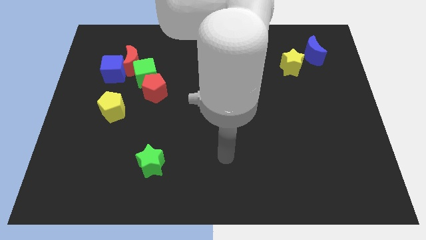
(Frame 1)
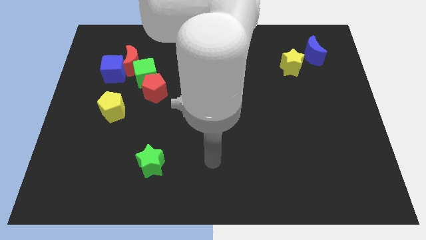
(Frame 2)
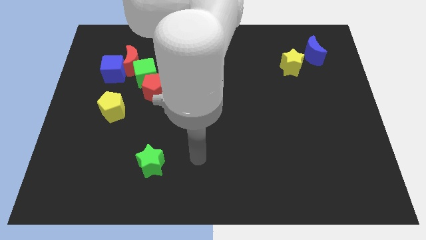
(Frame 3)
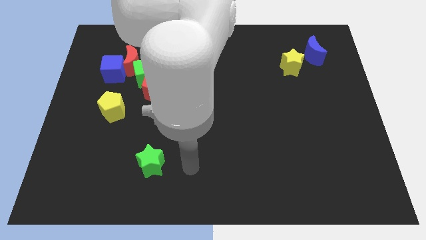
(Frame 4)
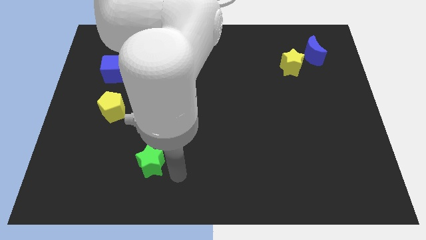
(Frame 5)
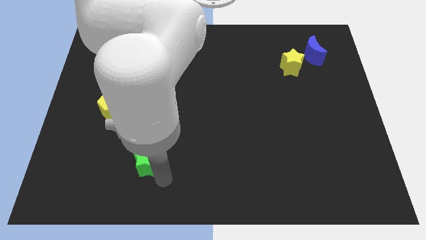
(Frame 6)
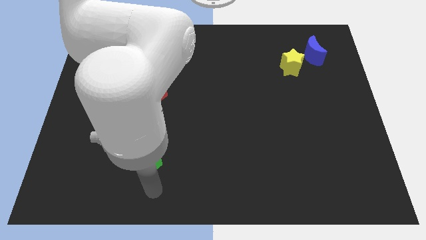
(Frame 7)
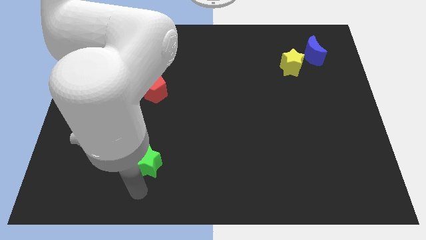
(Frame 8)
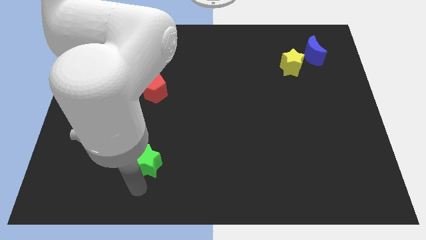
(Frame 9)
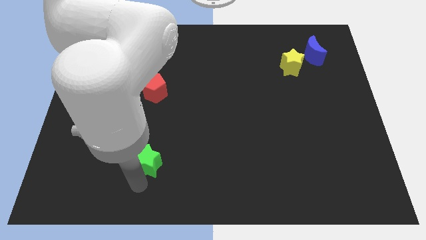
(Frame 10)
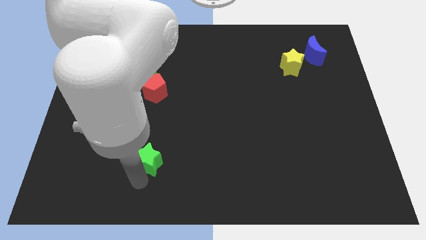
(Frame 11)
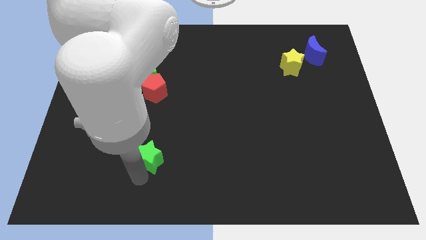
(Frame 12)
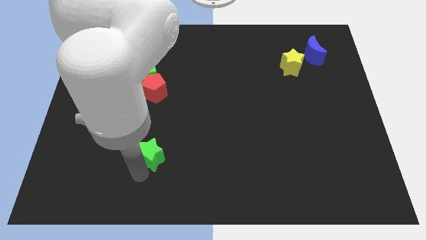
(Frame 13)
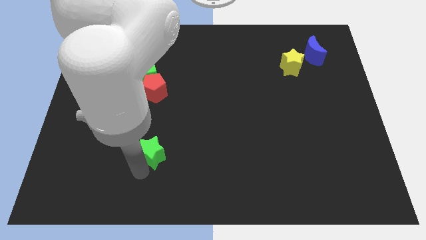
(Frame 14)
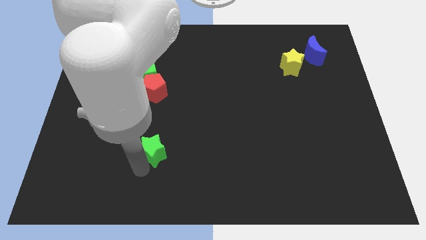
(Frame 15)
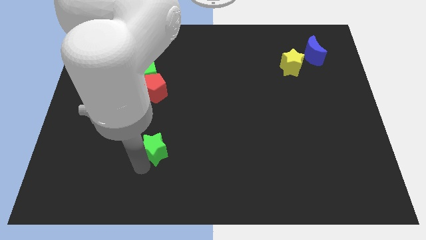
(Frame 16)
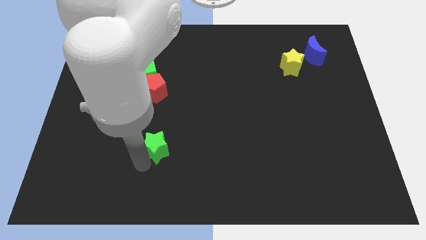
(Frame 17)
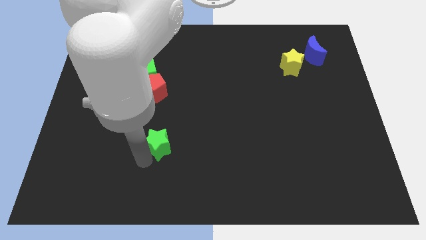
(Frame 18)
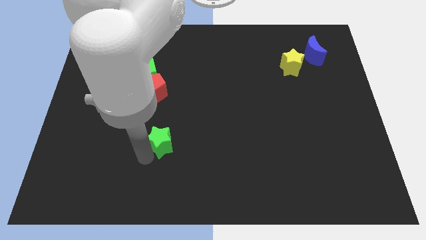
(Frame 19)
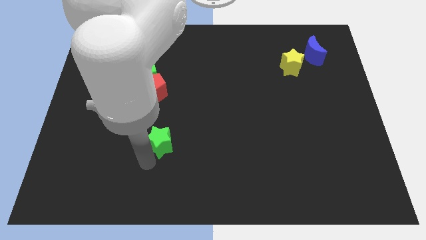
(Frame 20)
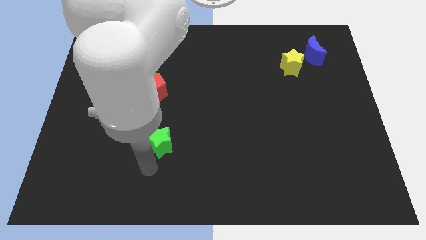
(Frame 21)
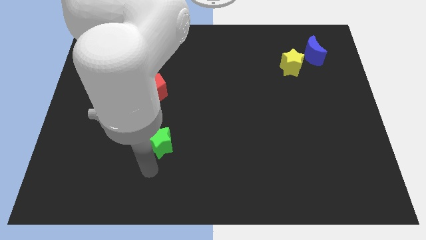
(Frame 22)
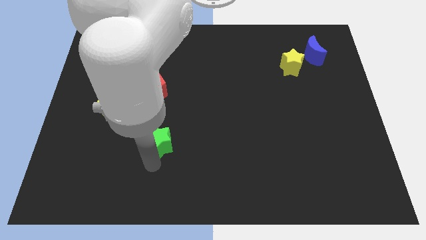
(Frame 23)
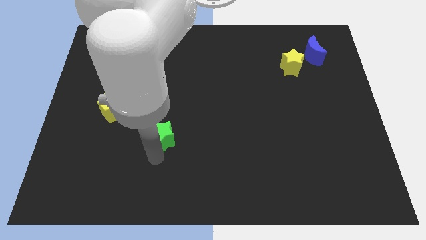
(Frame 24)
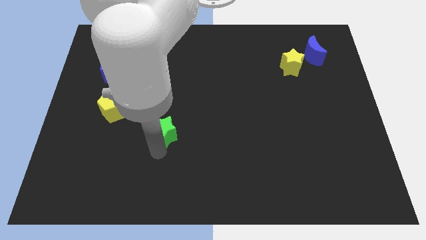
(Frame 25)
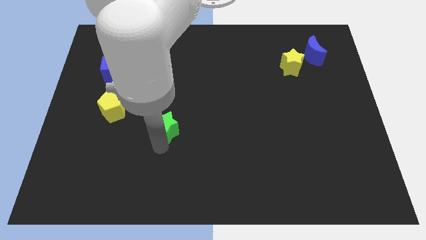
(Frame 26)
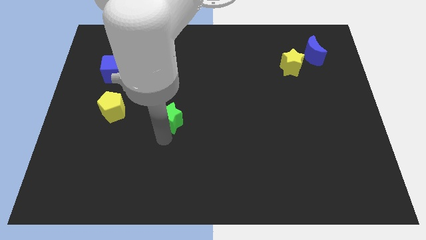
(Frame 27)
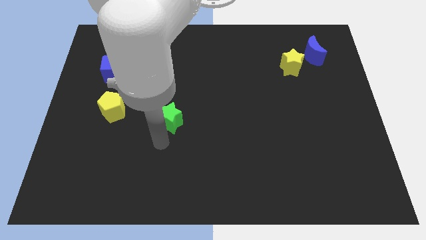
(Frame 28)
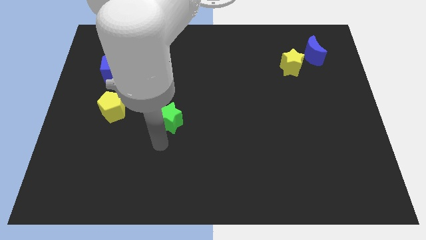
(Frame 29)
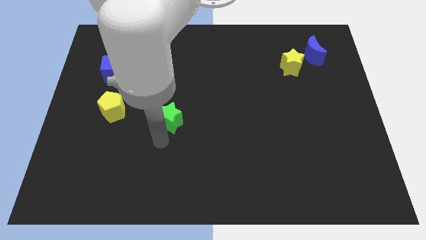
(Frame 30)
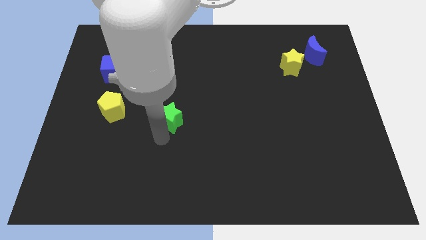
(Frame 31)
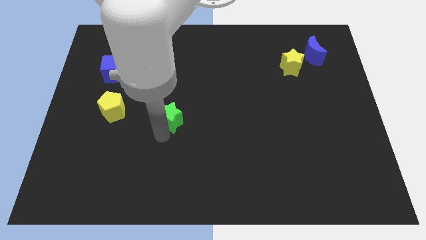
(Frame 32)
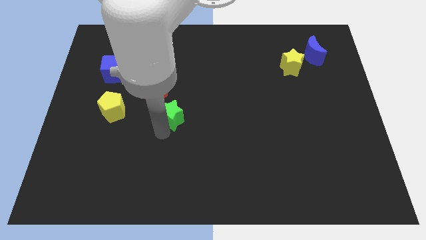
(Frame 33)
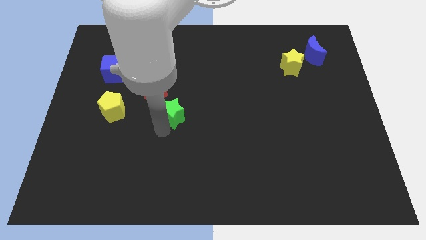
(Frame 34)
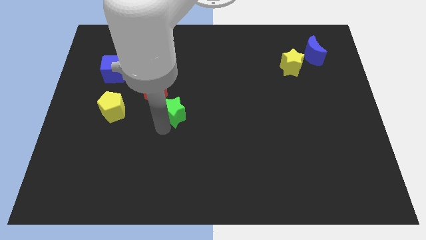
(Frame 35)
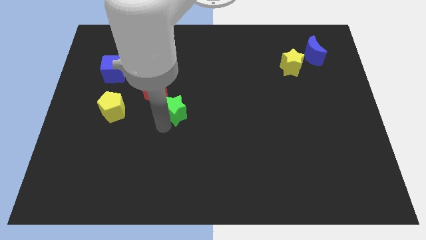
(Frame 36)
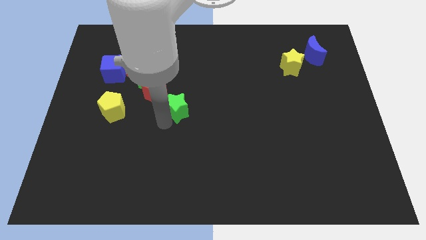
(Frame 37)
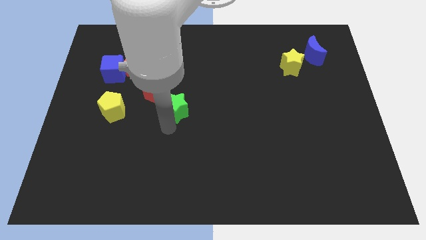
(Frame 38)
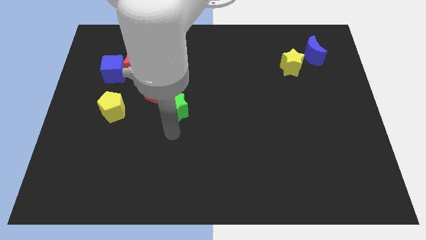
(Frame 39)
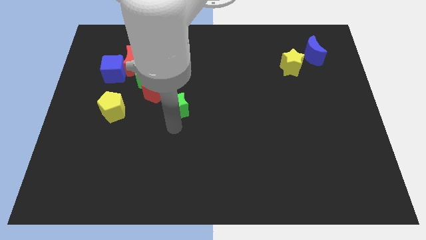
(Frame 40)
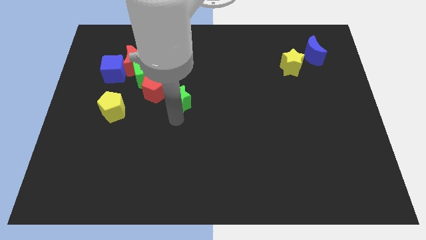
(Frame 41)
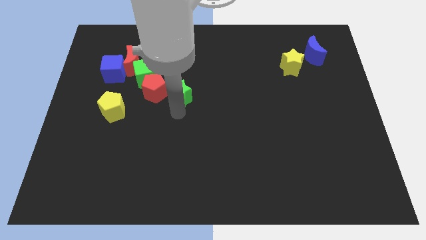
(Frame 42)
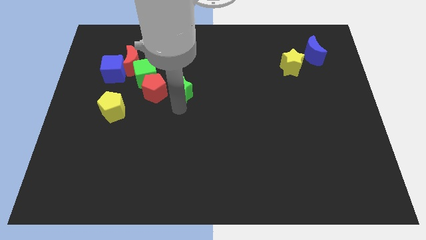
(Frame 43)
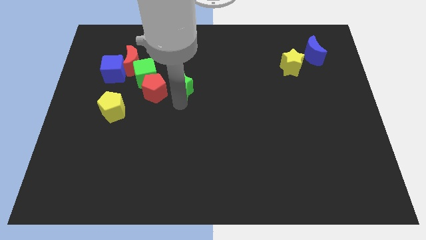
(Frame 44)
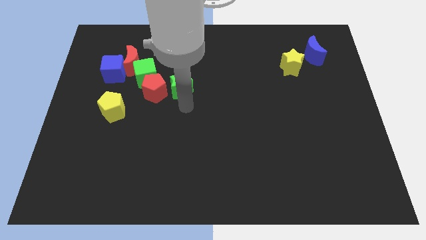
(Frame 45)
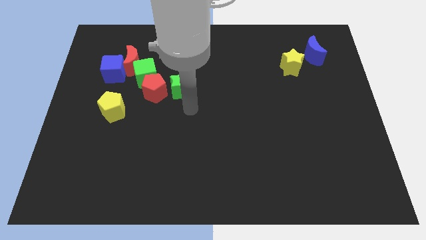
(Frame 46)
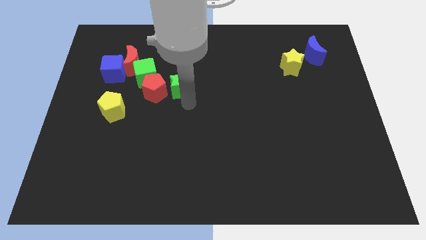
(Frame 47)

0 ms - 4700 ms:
move the green star up

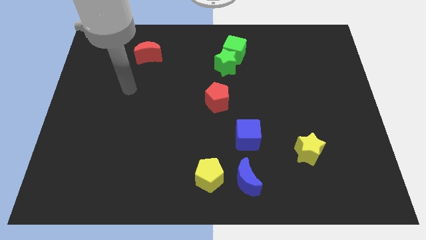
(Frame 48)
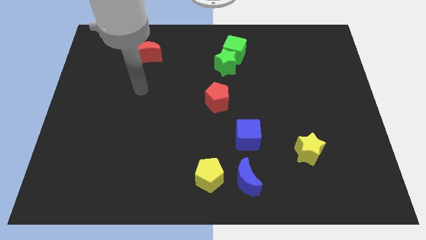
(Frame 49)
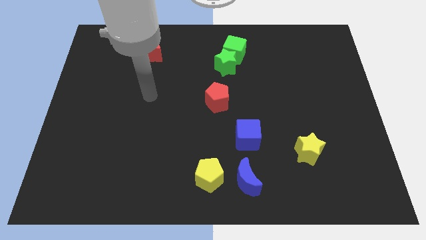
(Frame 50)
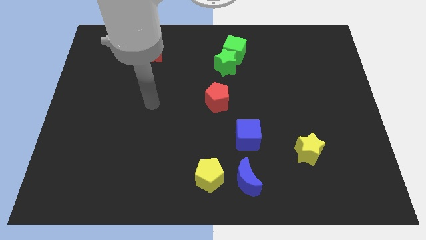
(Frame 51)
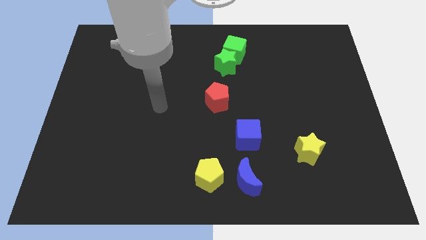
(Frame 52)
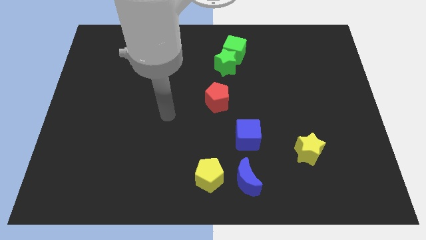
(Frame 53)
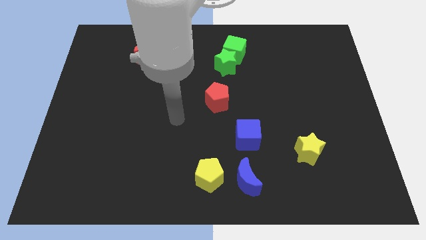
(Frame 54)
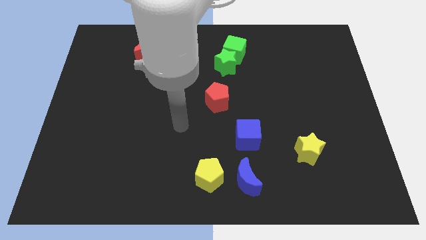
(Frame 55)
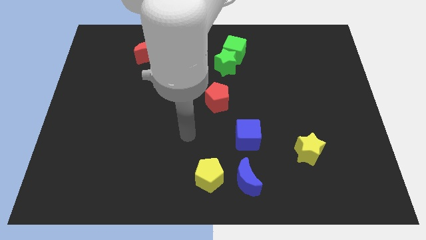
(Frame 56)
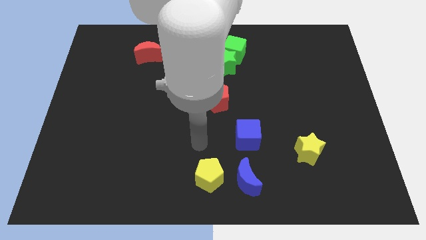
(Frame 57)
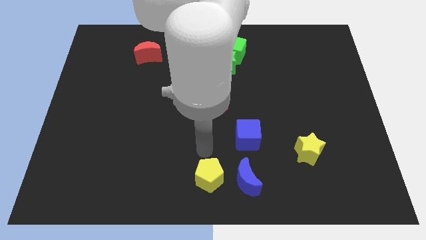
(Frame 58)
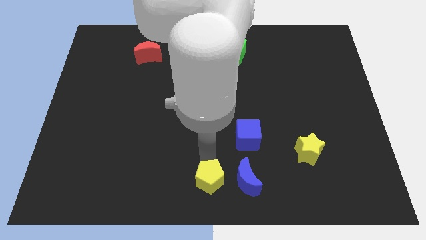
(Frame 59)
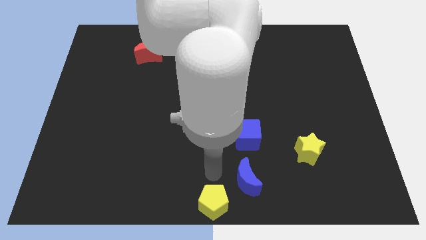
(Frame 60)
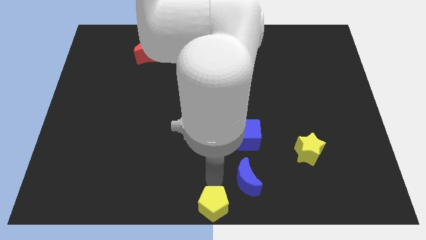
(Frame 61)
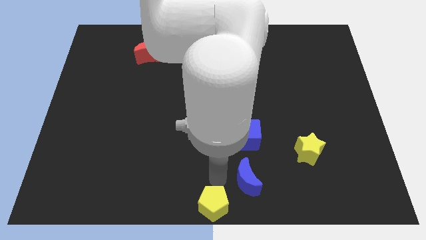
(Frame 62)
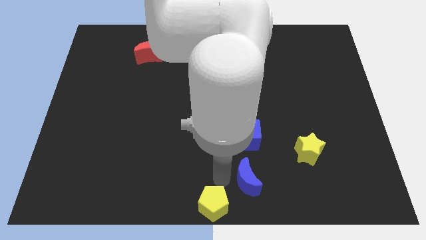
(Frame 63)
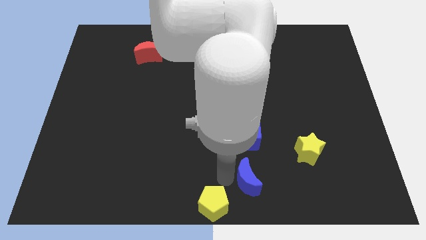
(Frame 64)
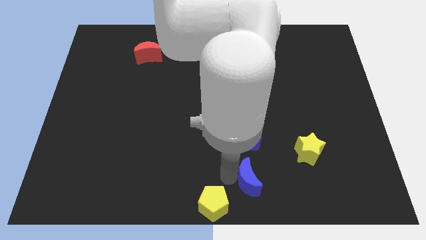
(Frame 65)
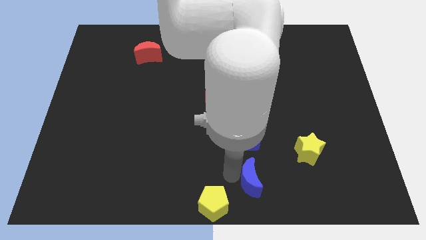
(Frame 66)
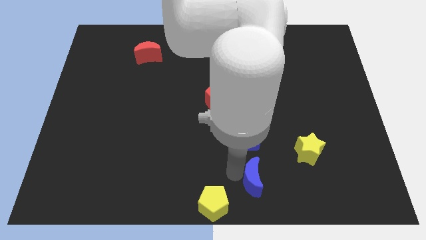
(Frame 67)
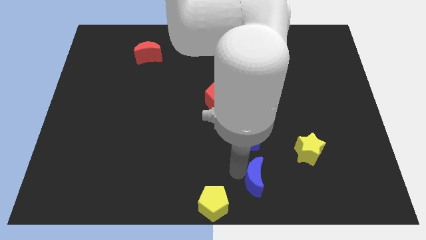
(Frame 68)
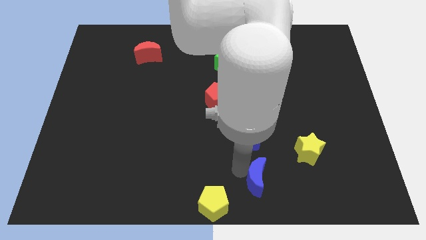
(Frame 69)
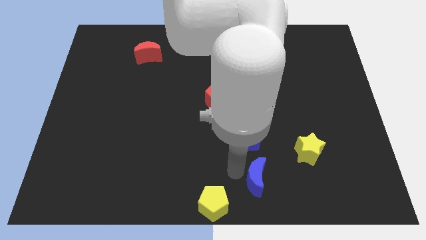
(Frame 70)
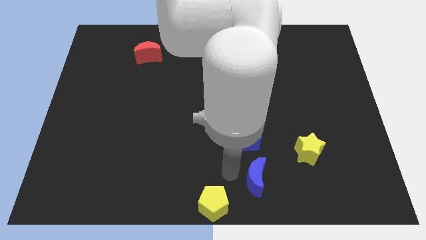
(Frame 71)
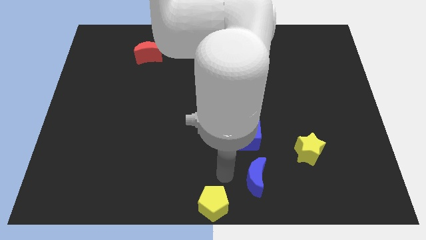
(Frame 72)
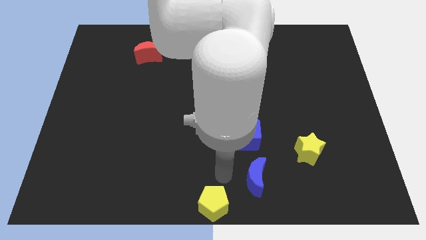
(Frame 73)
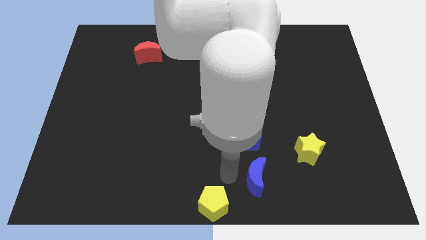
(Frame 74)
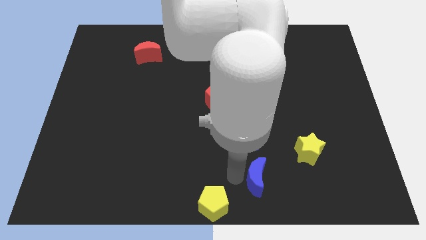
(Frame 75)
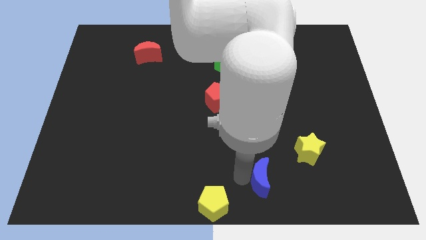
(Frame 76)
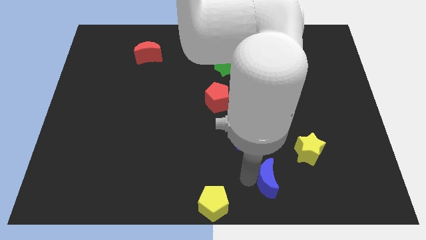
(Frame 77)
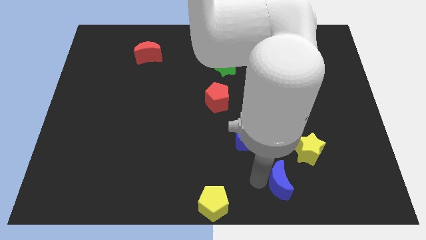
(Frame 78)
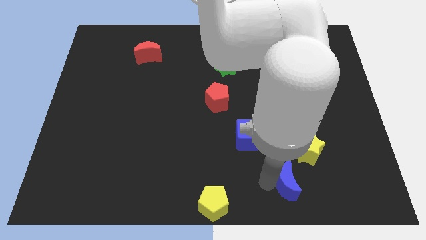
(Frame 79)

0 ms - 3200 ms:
slightly push the blue moon right

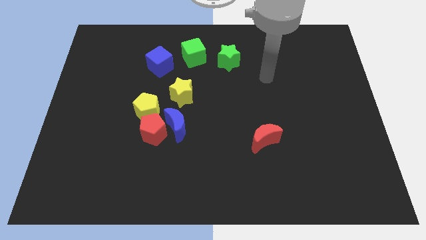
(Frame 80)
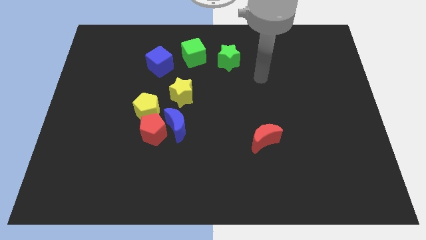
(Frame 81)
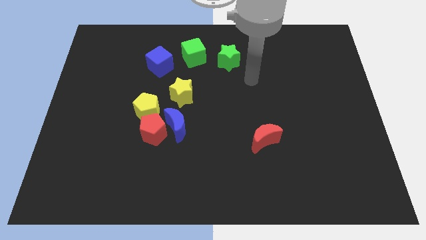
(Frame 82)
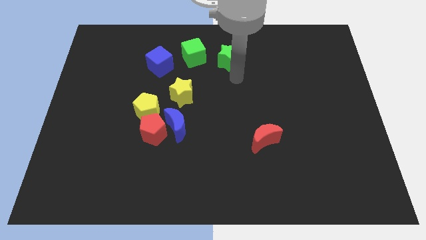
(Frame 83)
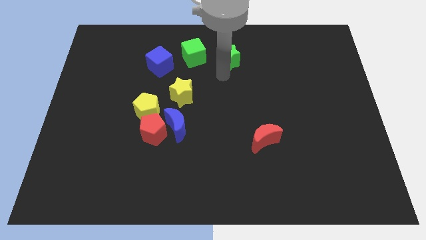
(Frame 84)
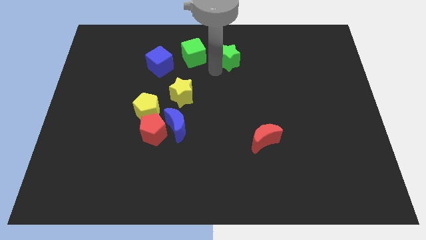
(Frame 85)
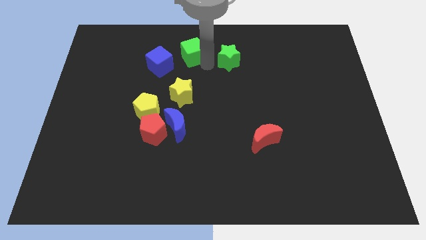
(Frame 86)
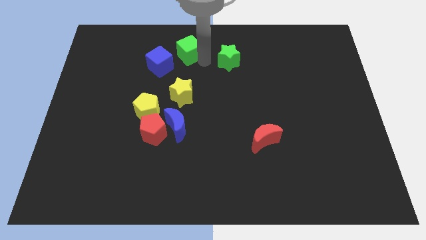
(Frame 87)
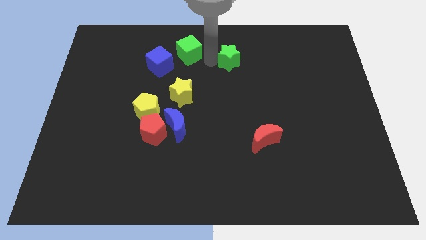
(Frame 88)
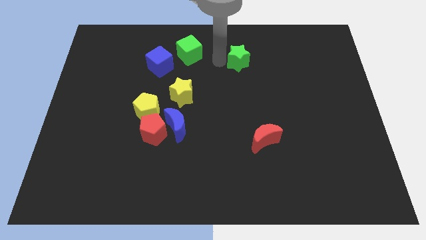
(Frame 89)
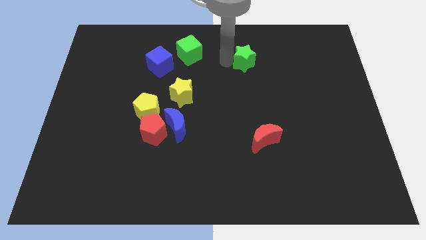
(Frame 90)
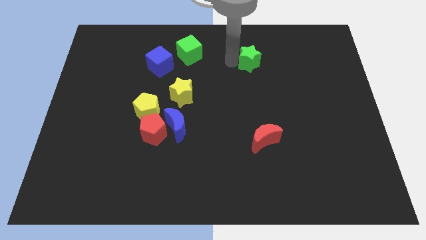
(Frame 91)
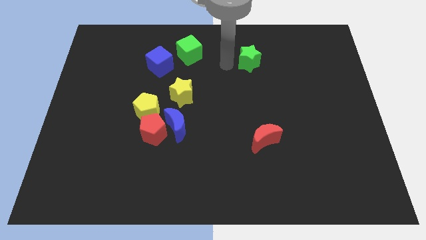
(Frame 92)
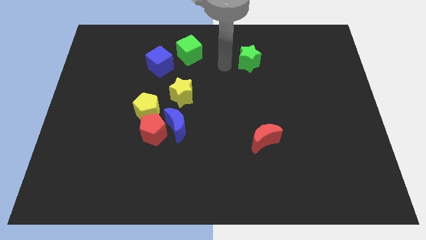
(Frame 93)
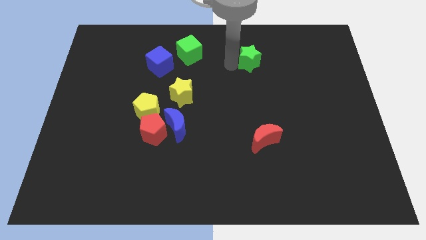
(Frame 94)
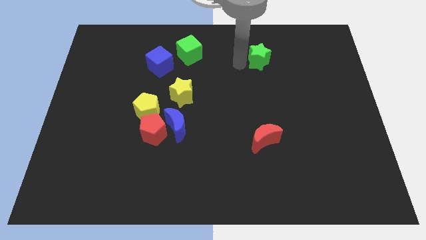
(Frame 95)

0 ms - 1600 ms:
slightly move the green star right
